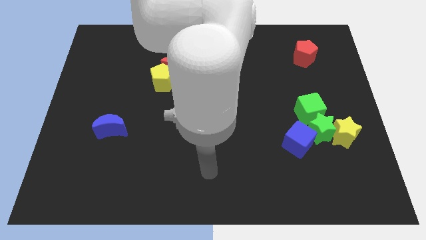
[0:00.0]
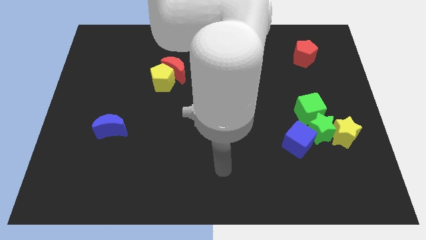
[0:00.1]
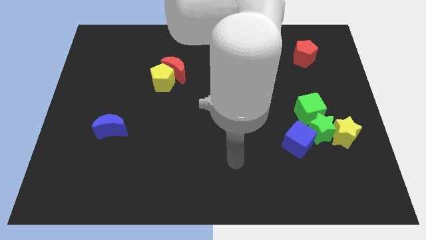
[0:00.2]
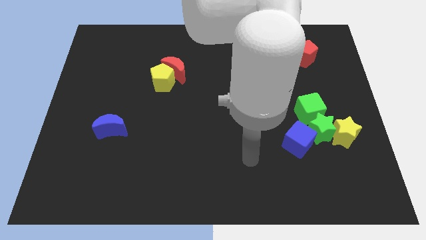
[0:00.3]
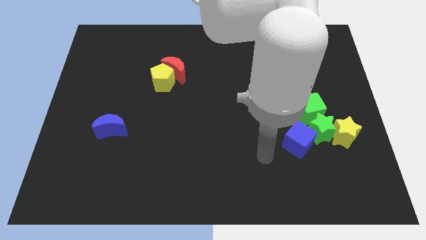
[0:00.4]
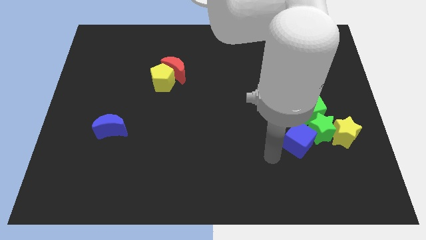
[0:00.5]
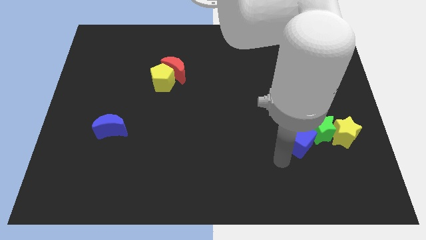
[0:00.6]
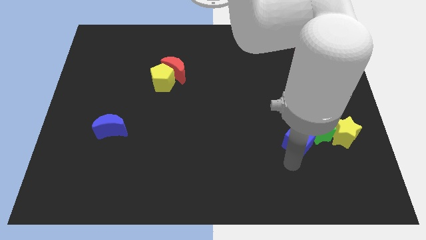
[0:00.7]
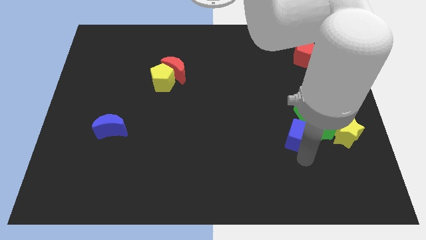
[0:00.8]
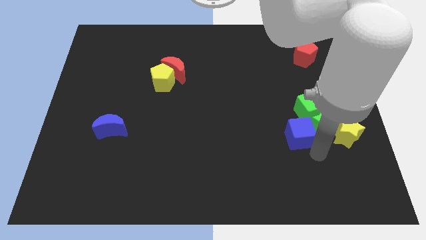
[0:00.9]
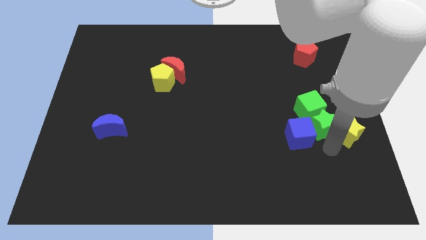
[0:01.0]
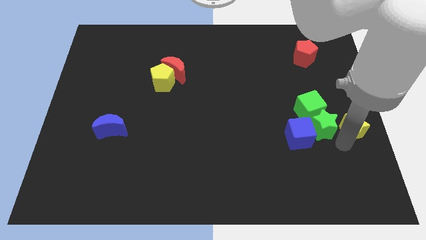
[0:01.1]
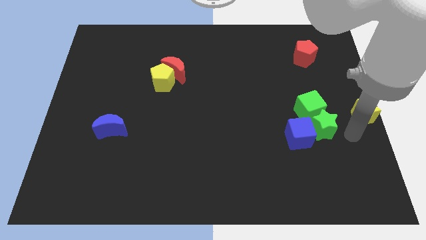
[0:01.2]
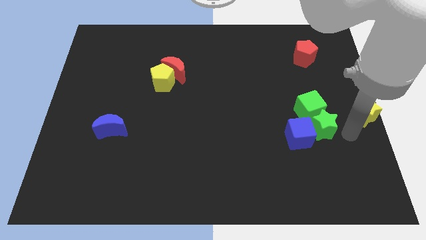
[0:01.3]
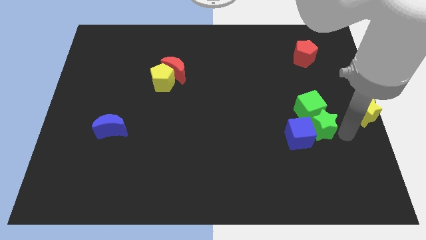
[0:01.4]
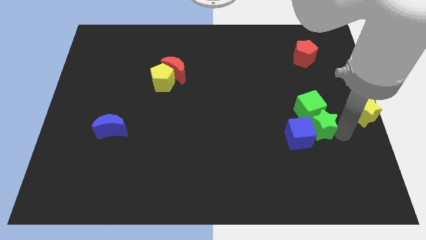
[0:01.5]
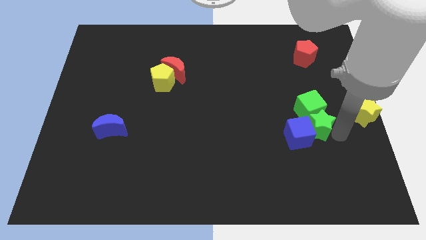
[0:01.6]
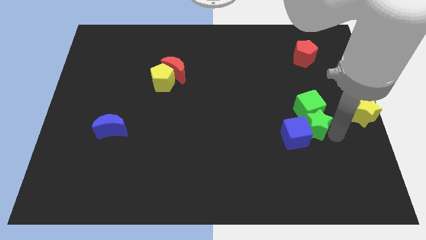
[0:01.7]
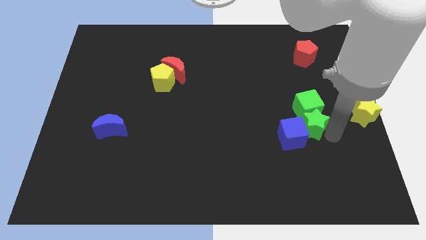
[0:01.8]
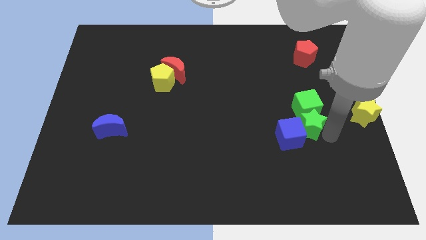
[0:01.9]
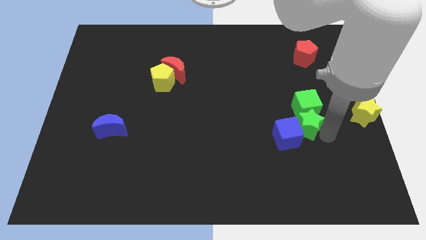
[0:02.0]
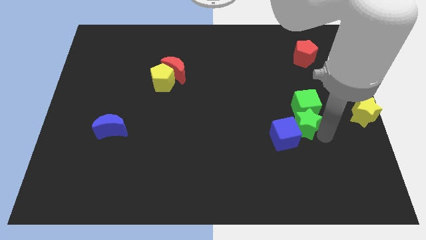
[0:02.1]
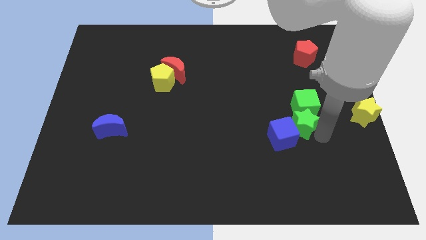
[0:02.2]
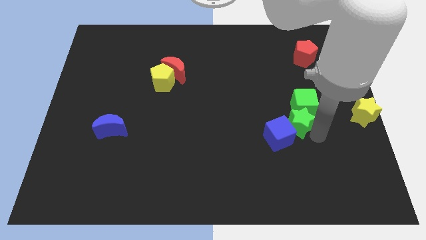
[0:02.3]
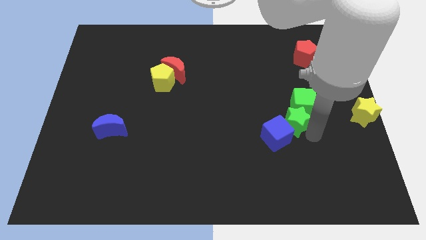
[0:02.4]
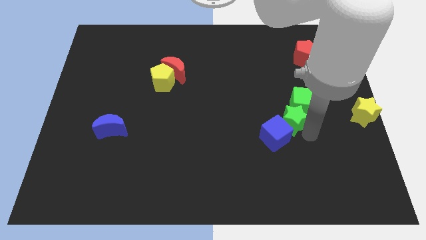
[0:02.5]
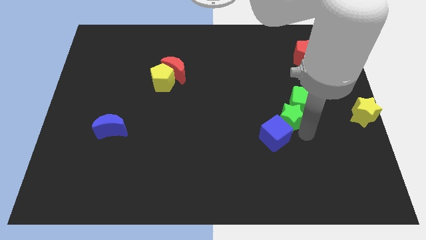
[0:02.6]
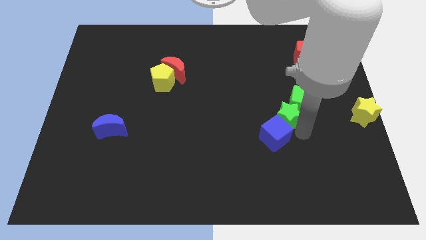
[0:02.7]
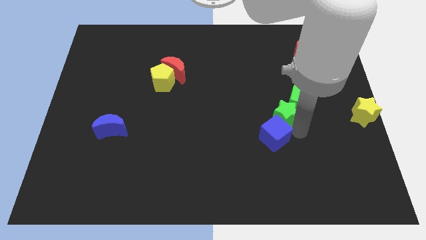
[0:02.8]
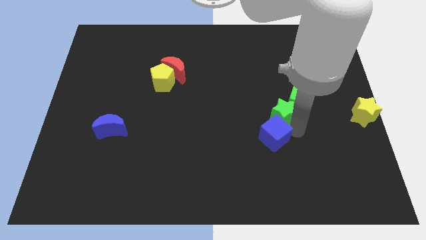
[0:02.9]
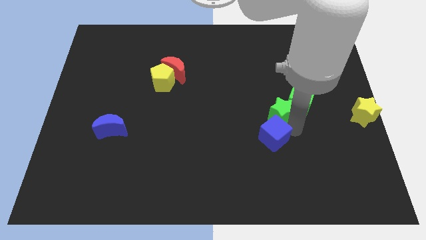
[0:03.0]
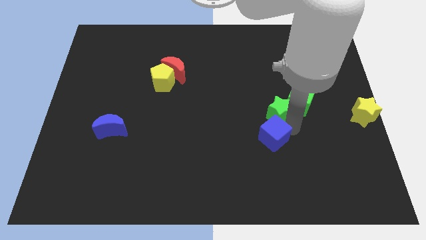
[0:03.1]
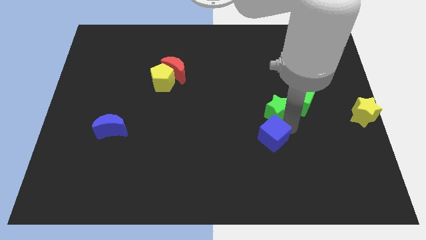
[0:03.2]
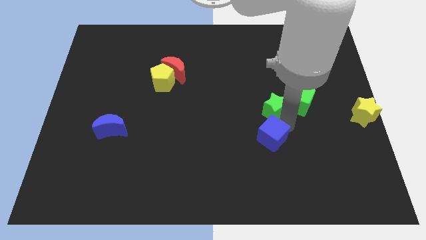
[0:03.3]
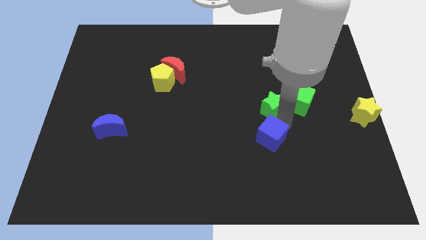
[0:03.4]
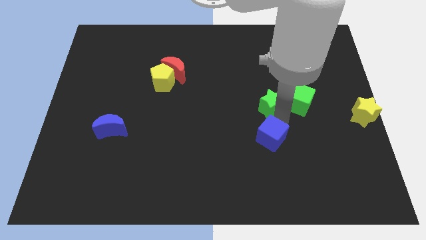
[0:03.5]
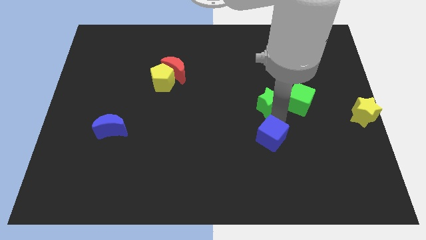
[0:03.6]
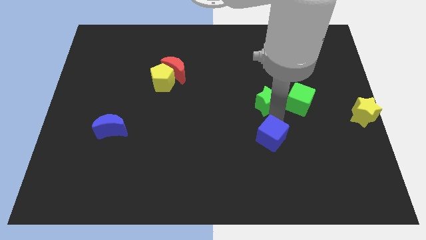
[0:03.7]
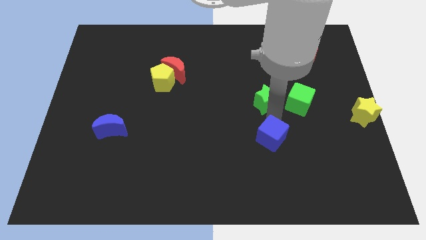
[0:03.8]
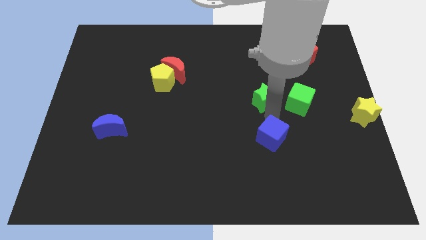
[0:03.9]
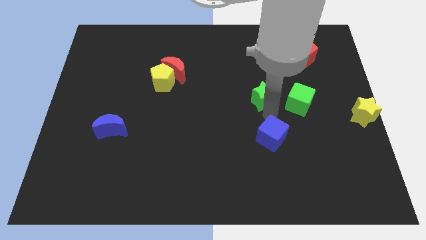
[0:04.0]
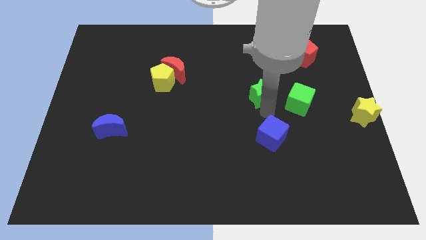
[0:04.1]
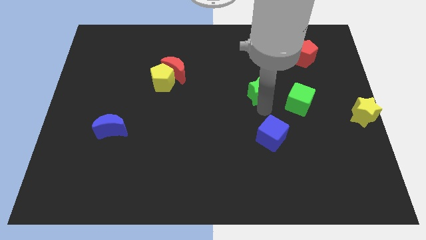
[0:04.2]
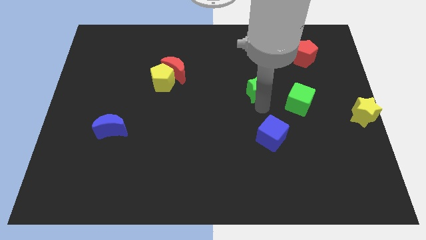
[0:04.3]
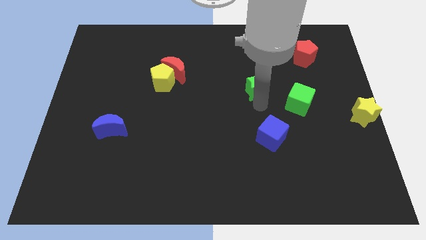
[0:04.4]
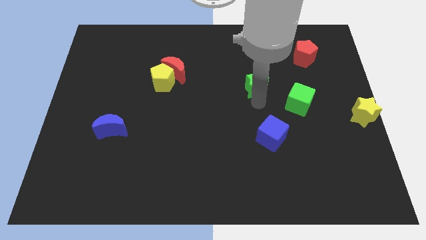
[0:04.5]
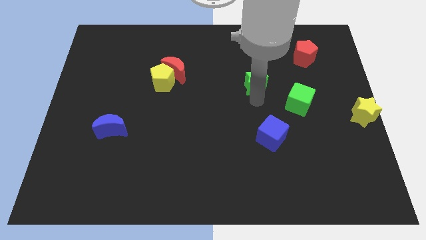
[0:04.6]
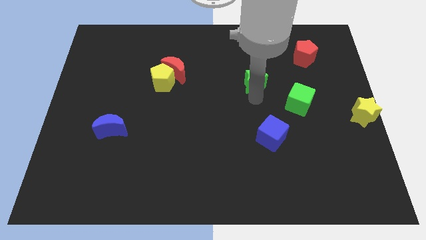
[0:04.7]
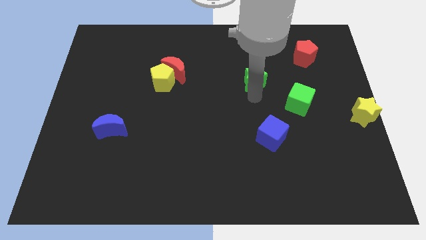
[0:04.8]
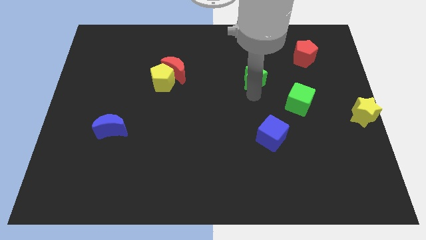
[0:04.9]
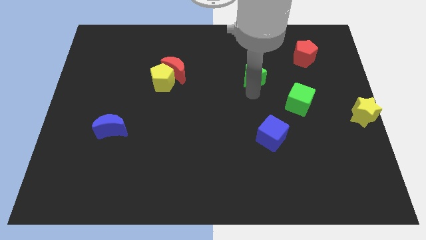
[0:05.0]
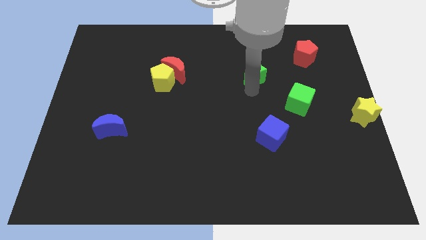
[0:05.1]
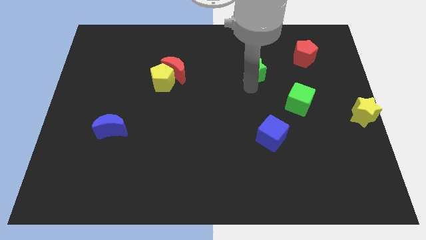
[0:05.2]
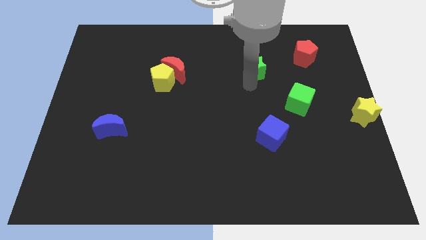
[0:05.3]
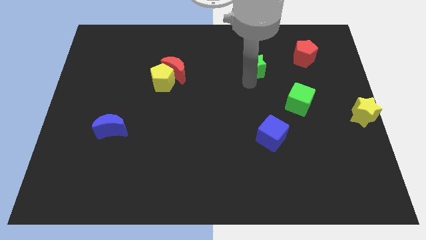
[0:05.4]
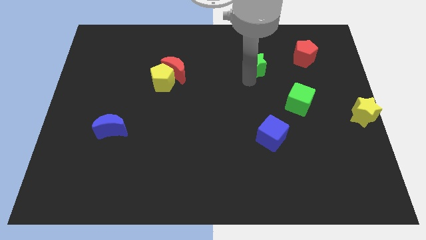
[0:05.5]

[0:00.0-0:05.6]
put the green star to the left of the red pentagon

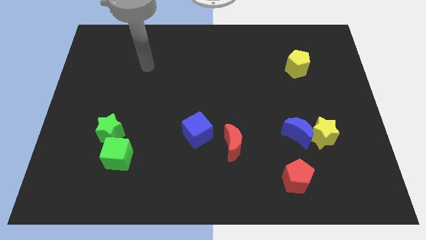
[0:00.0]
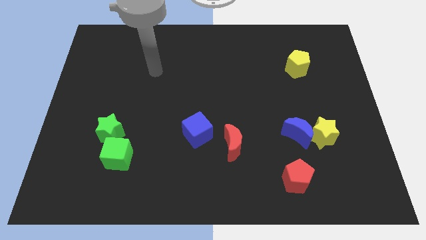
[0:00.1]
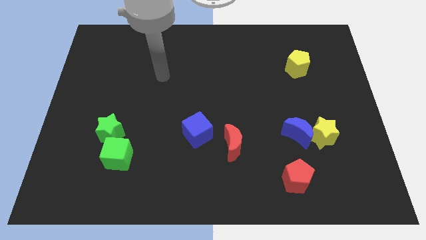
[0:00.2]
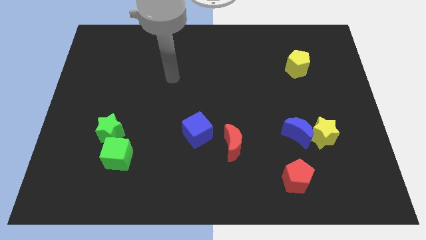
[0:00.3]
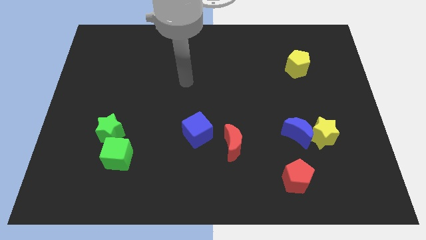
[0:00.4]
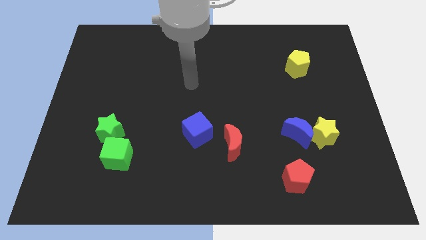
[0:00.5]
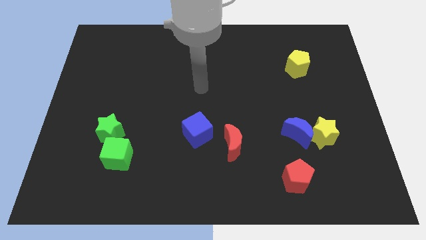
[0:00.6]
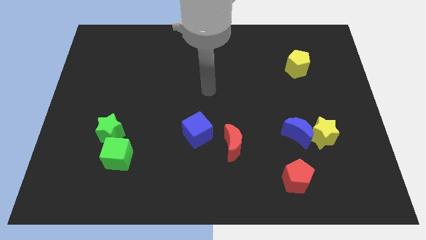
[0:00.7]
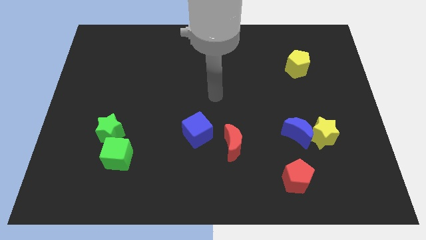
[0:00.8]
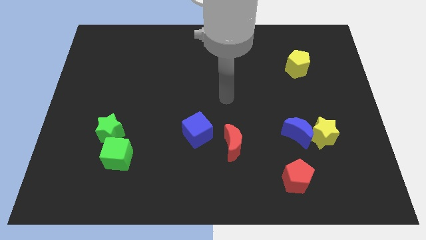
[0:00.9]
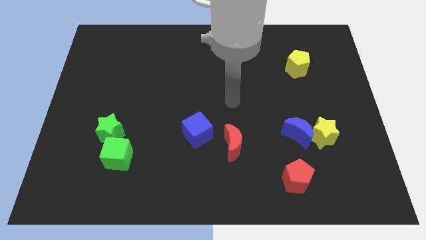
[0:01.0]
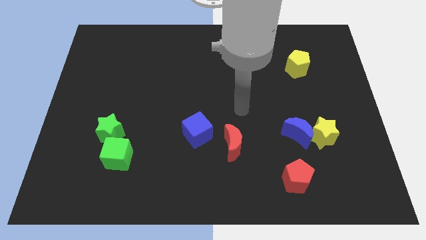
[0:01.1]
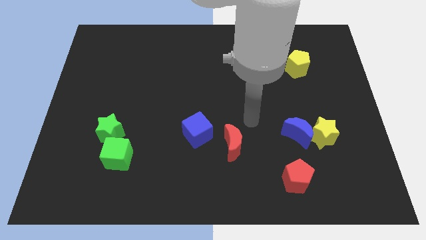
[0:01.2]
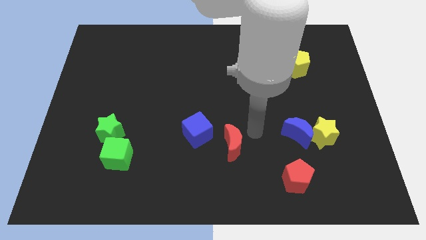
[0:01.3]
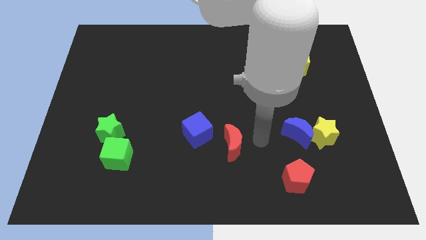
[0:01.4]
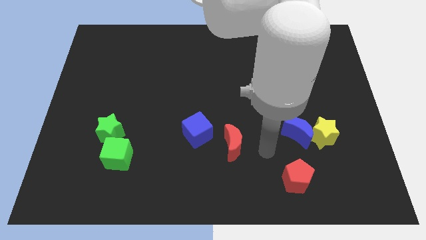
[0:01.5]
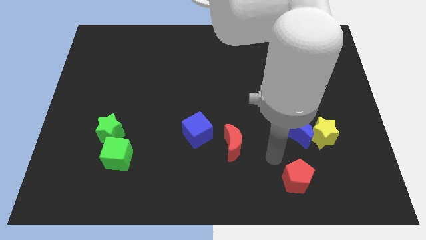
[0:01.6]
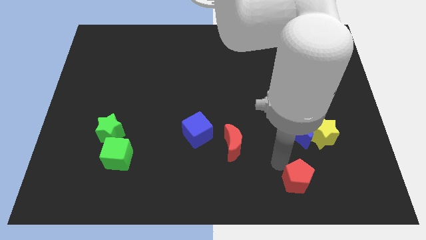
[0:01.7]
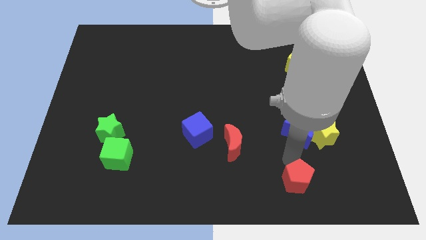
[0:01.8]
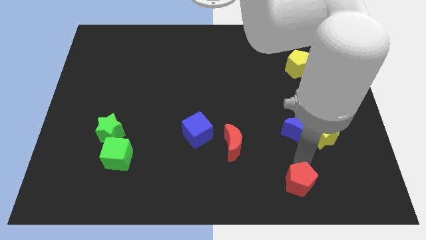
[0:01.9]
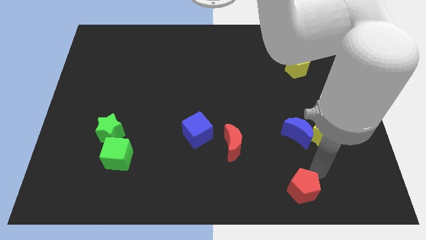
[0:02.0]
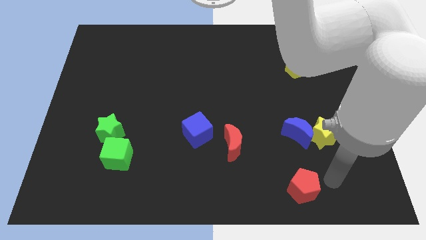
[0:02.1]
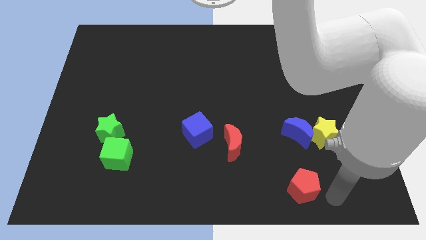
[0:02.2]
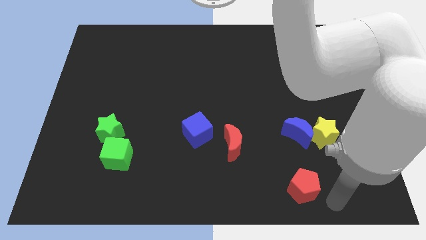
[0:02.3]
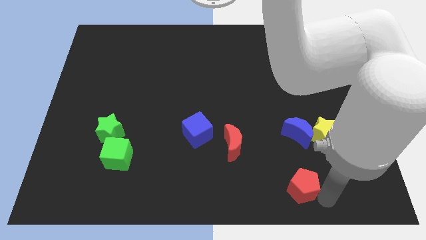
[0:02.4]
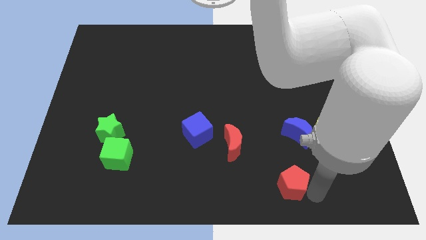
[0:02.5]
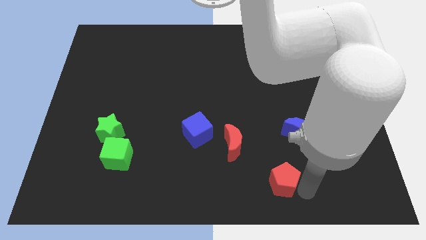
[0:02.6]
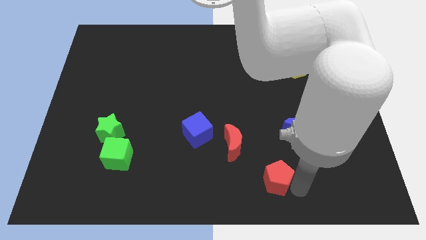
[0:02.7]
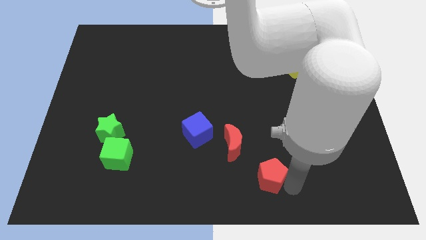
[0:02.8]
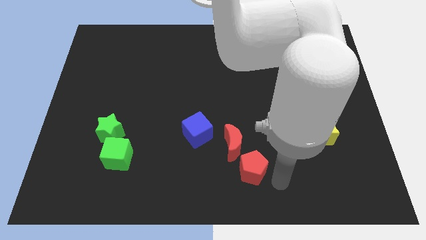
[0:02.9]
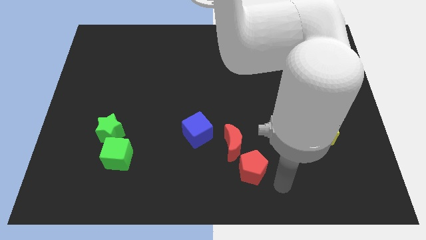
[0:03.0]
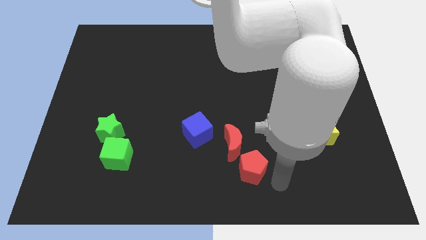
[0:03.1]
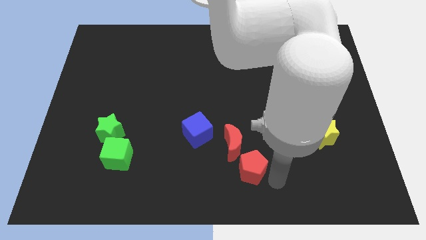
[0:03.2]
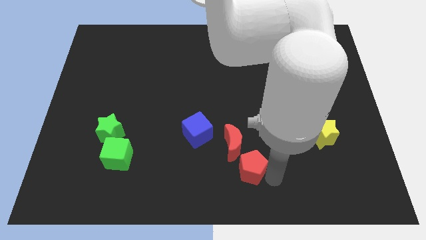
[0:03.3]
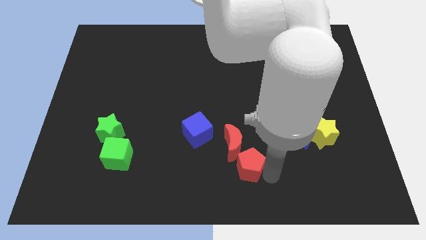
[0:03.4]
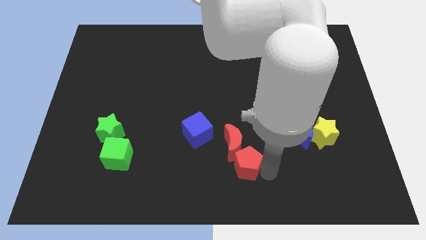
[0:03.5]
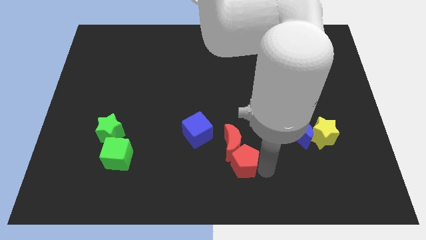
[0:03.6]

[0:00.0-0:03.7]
move the red pentagon diagonally down and to the right of the blue cube
